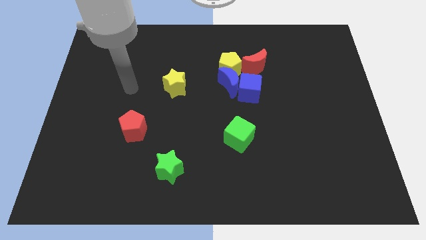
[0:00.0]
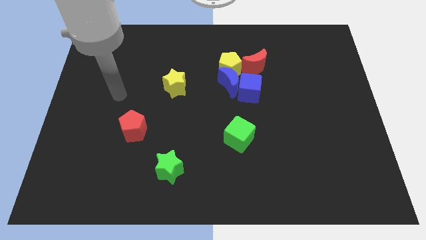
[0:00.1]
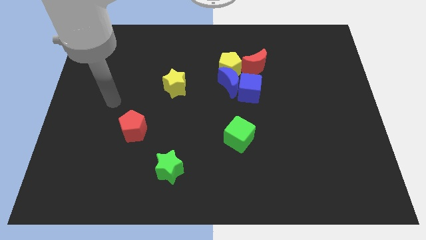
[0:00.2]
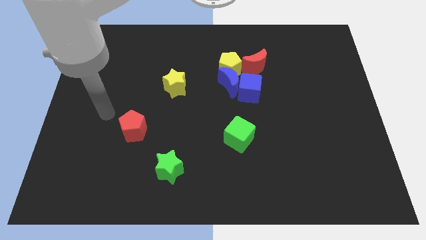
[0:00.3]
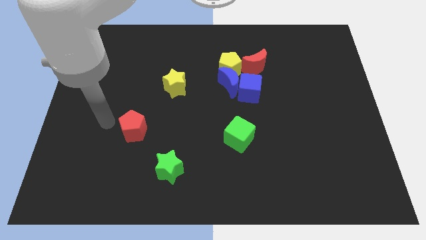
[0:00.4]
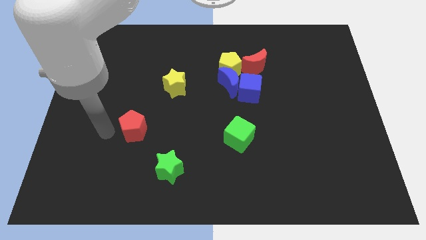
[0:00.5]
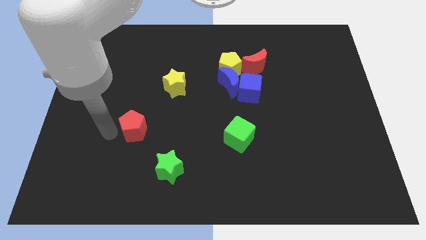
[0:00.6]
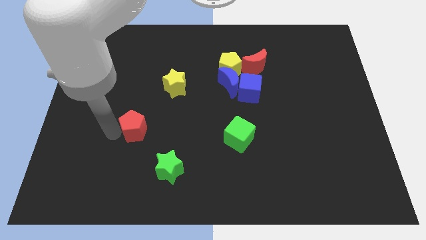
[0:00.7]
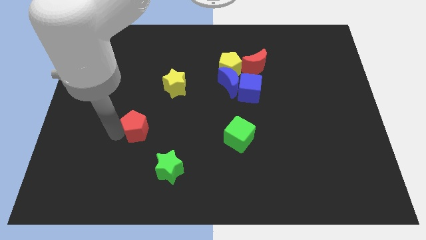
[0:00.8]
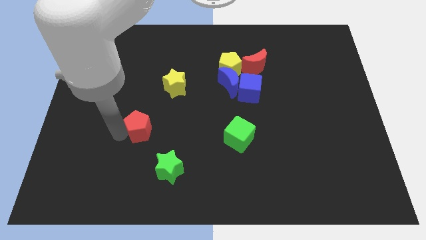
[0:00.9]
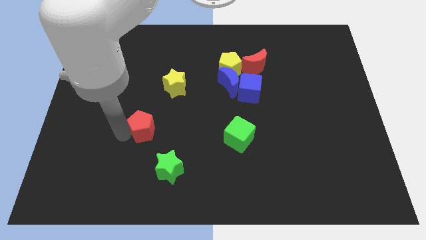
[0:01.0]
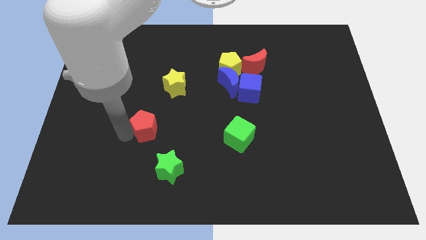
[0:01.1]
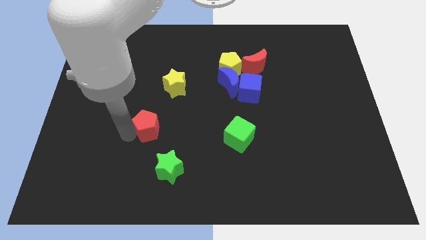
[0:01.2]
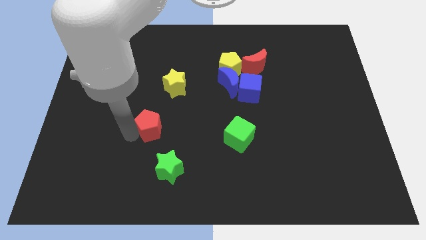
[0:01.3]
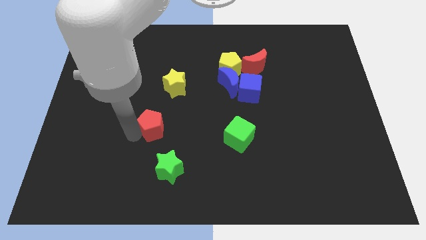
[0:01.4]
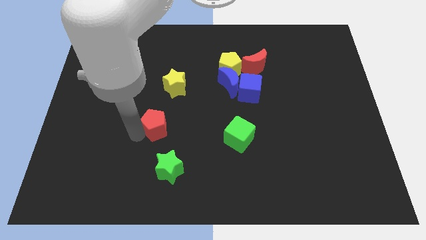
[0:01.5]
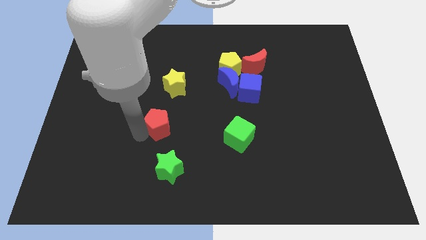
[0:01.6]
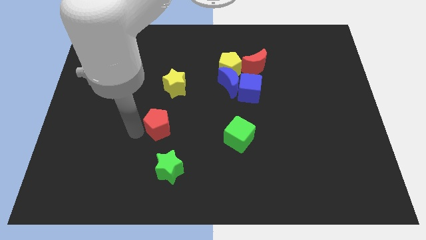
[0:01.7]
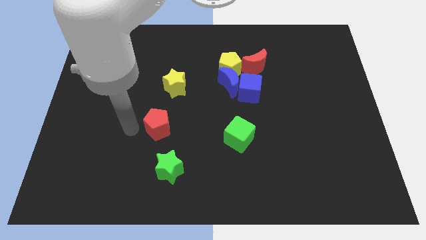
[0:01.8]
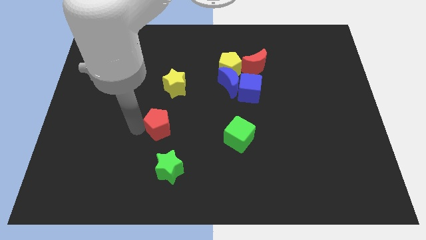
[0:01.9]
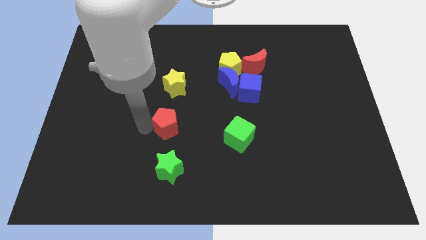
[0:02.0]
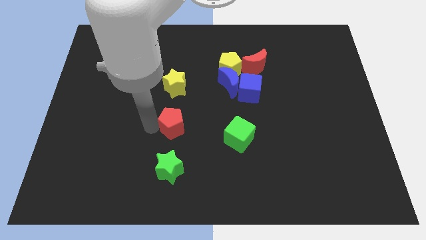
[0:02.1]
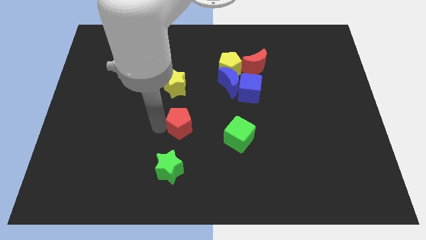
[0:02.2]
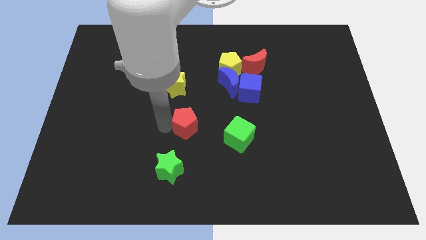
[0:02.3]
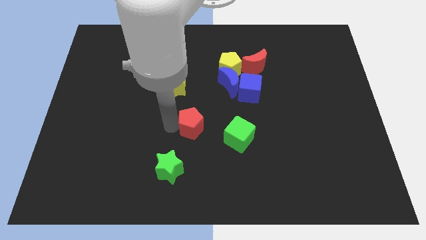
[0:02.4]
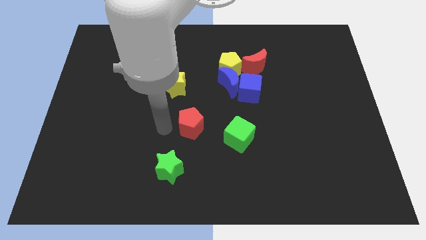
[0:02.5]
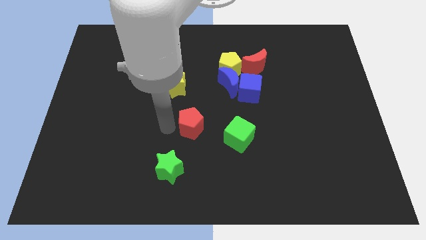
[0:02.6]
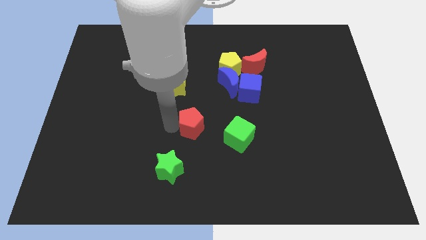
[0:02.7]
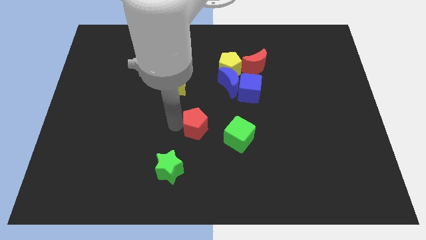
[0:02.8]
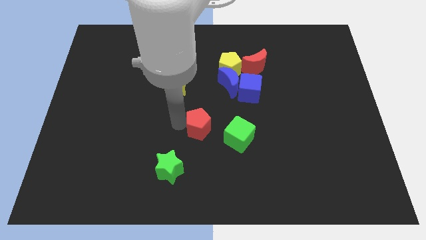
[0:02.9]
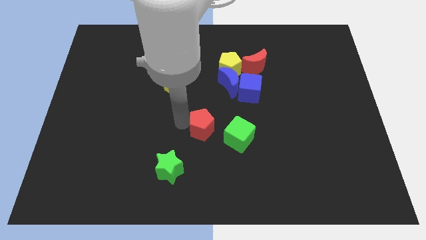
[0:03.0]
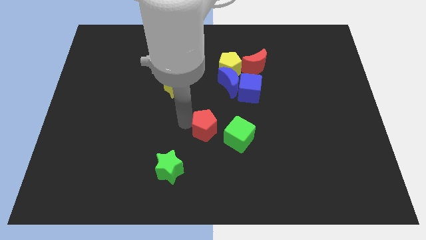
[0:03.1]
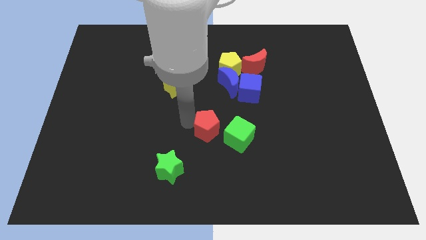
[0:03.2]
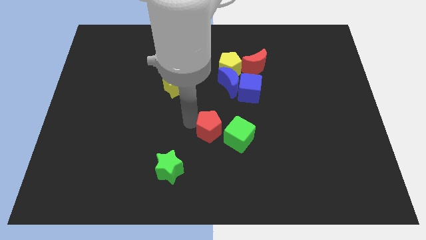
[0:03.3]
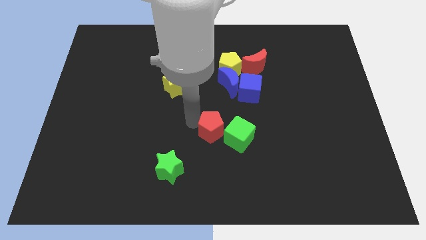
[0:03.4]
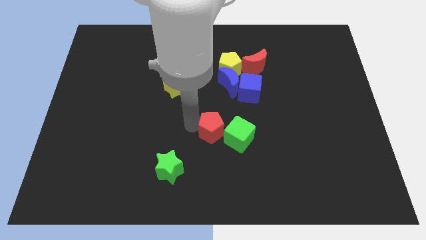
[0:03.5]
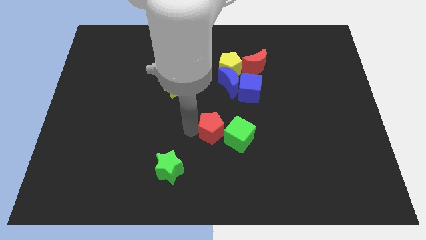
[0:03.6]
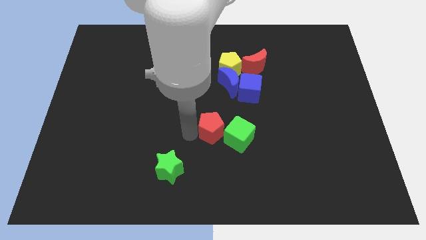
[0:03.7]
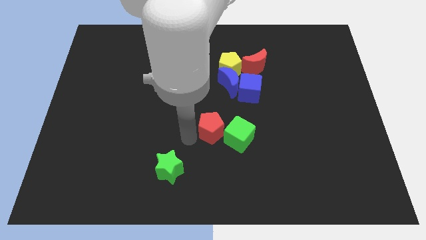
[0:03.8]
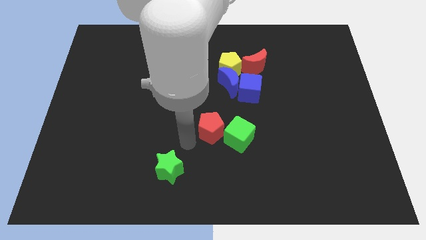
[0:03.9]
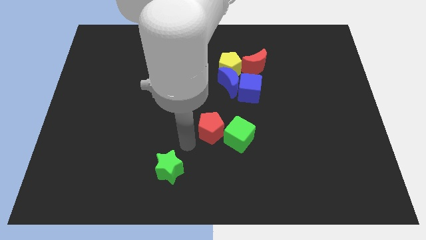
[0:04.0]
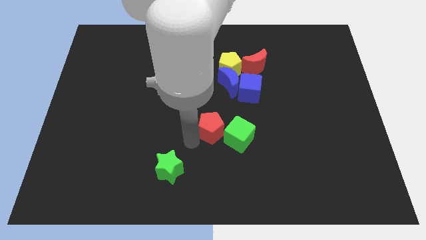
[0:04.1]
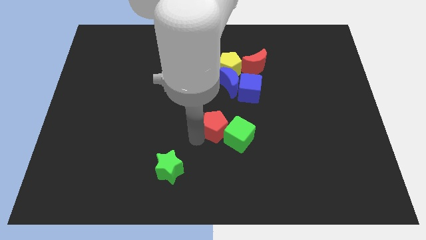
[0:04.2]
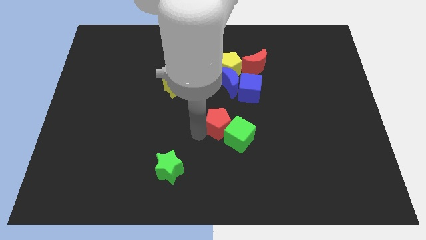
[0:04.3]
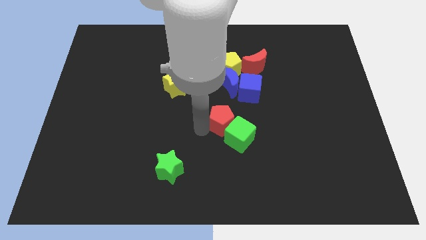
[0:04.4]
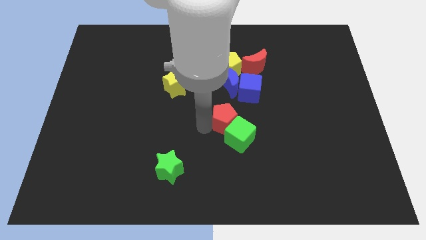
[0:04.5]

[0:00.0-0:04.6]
slide the red pentagon to the right

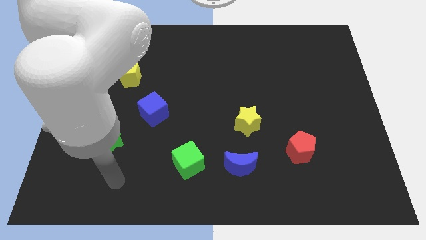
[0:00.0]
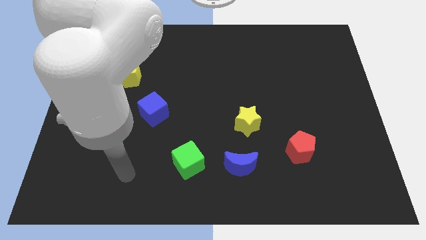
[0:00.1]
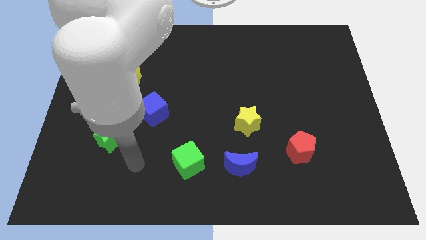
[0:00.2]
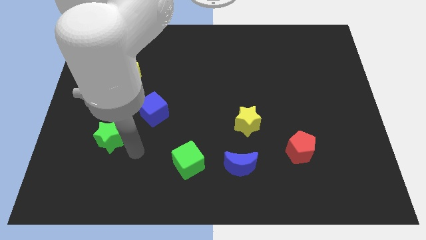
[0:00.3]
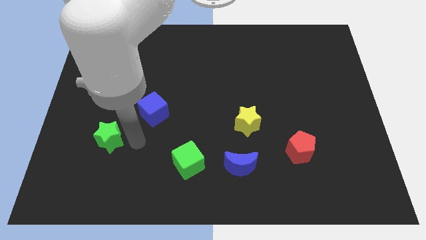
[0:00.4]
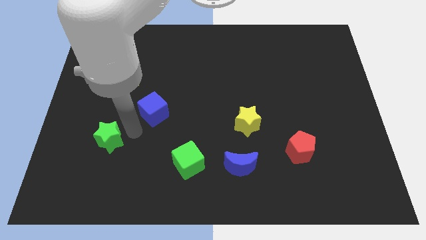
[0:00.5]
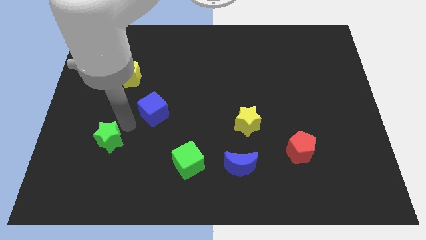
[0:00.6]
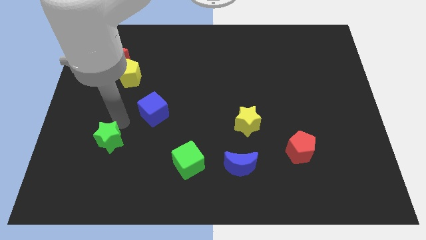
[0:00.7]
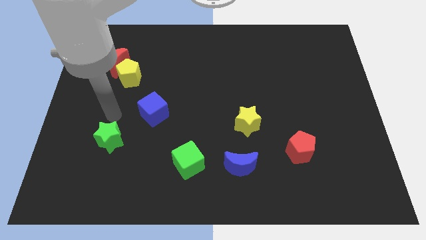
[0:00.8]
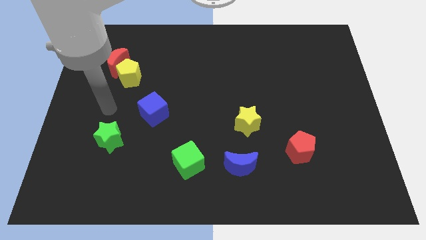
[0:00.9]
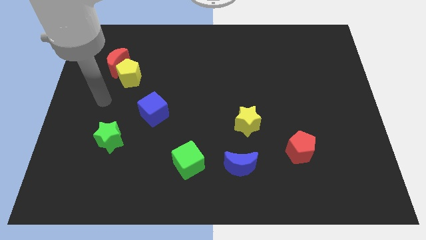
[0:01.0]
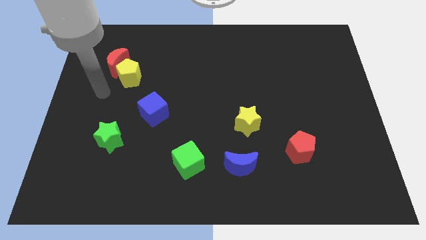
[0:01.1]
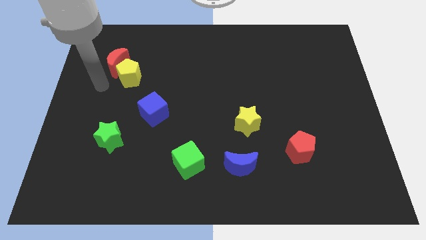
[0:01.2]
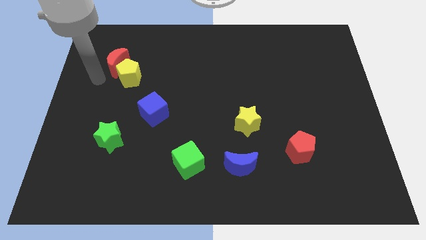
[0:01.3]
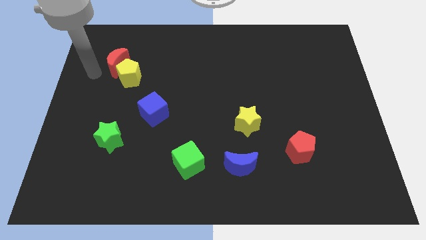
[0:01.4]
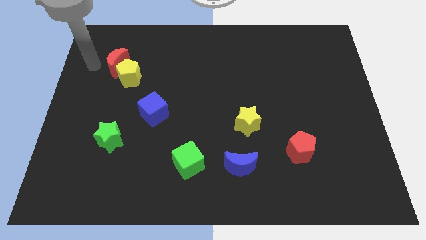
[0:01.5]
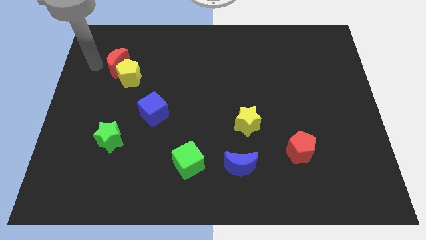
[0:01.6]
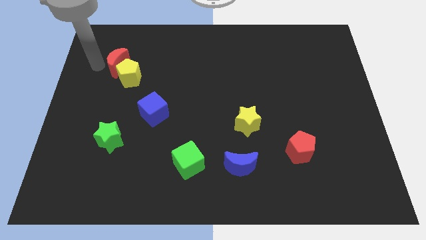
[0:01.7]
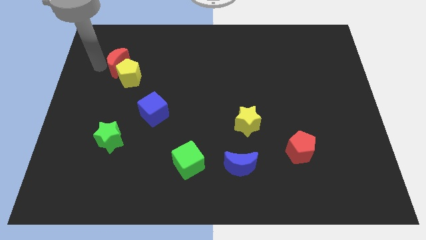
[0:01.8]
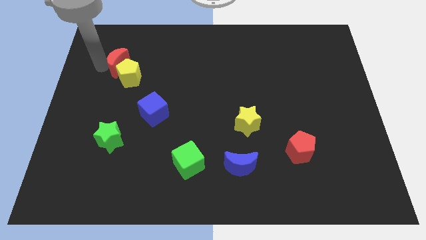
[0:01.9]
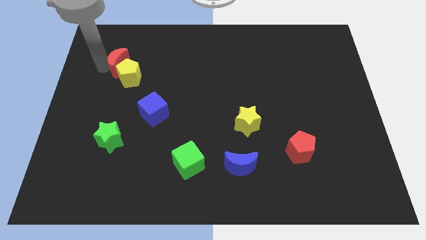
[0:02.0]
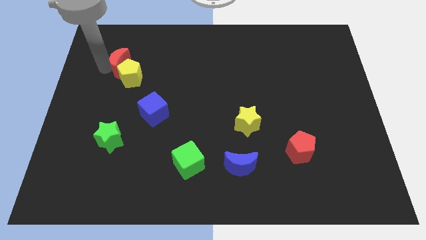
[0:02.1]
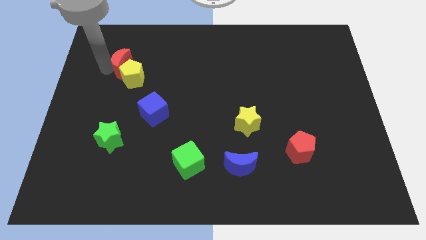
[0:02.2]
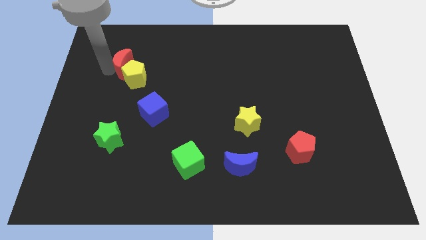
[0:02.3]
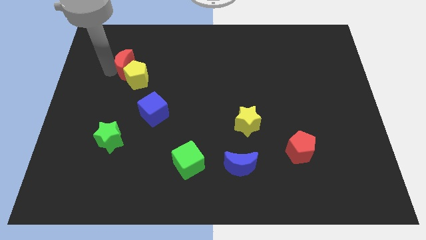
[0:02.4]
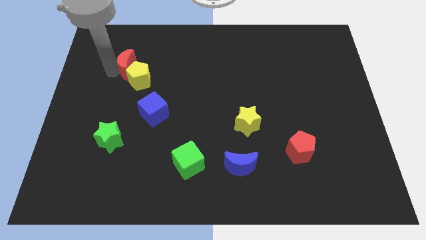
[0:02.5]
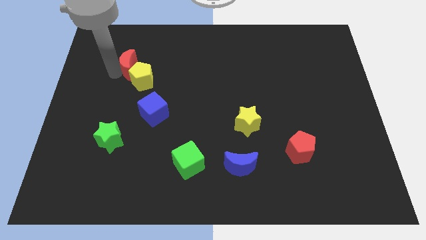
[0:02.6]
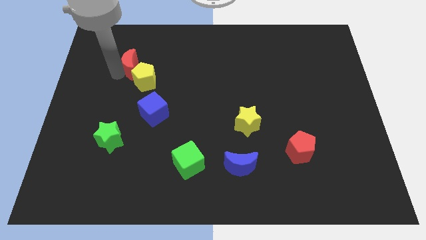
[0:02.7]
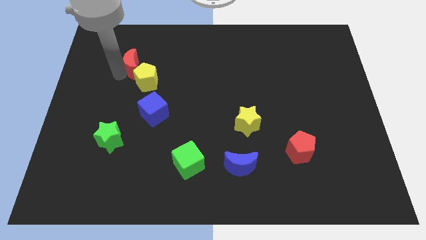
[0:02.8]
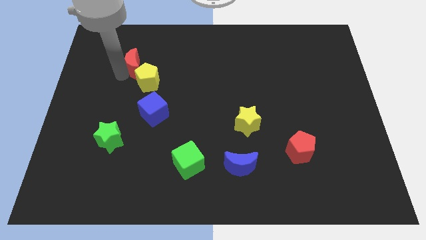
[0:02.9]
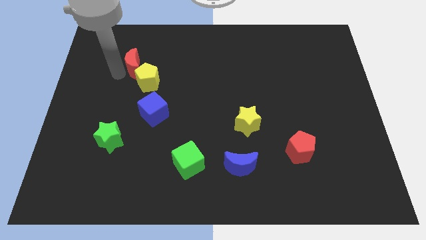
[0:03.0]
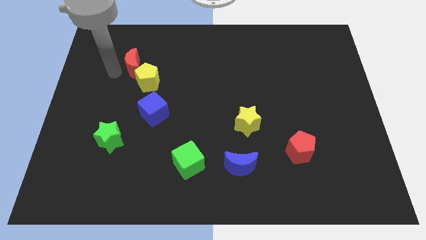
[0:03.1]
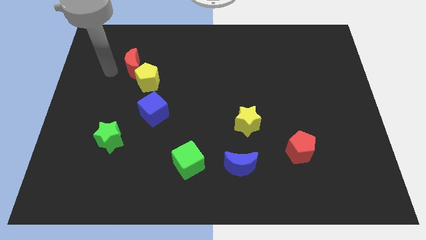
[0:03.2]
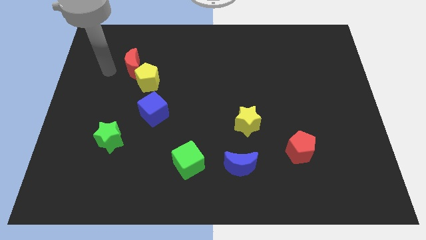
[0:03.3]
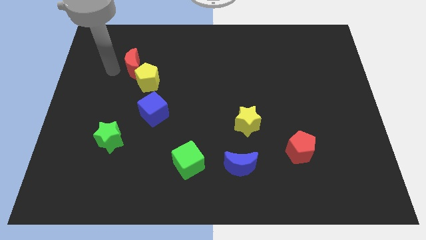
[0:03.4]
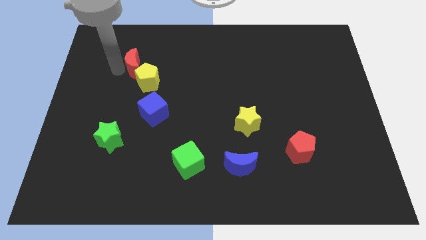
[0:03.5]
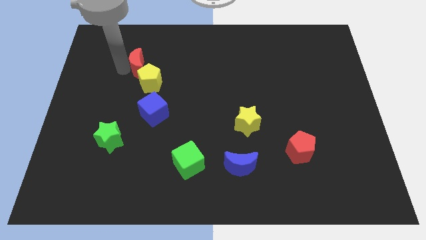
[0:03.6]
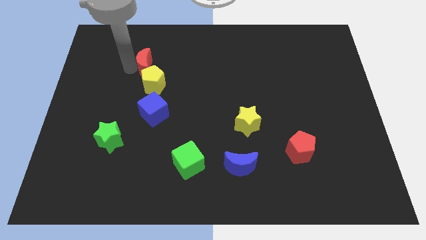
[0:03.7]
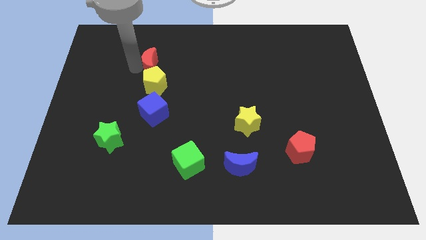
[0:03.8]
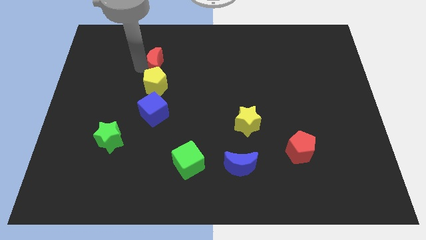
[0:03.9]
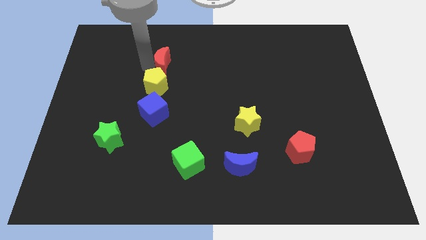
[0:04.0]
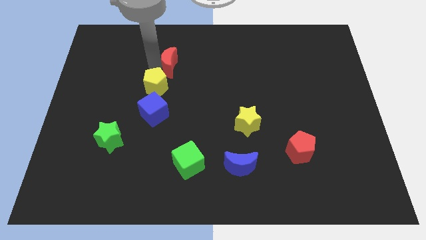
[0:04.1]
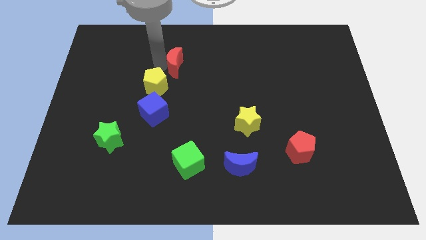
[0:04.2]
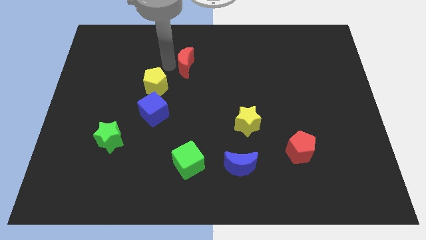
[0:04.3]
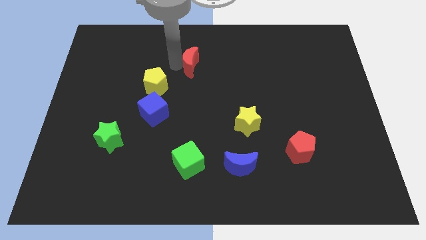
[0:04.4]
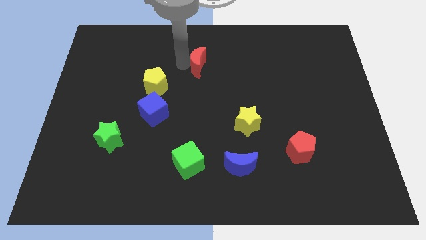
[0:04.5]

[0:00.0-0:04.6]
push the red moon right
